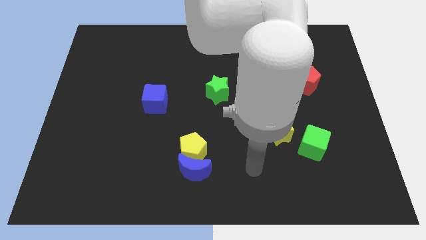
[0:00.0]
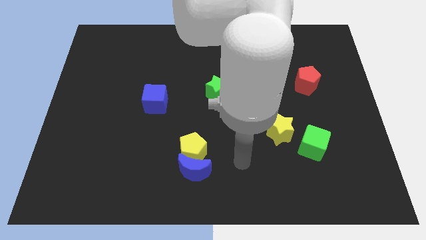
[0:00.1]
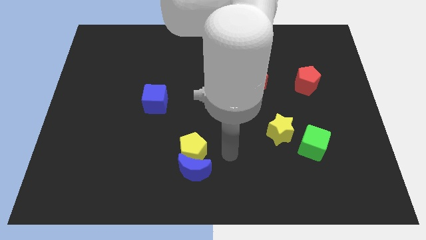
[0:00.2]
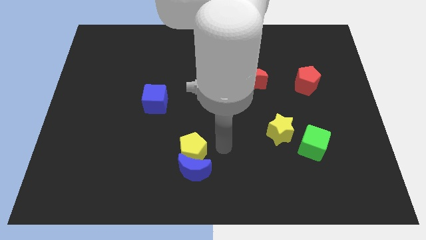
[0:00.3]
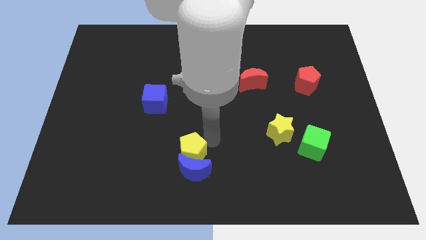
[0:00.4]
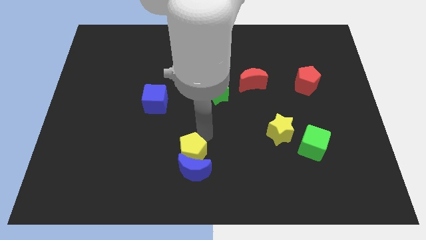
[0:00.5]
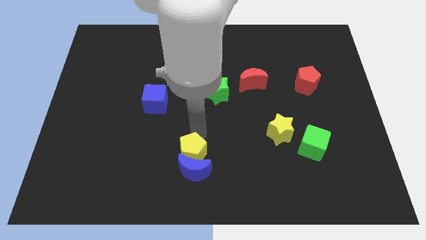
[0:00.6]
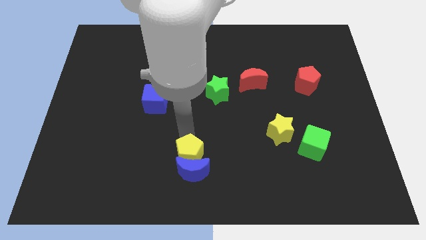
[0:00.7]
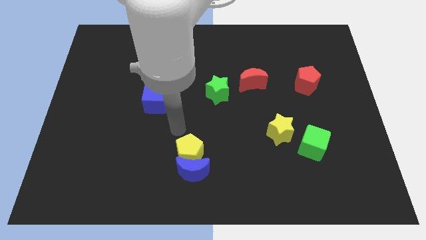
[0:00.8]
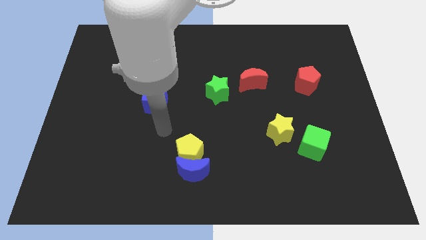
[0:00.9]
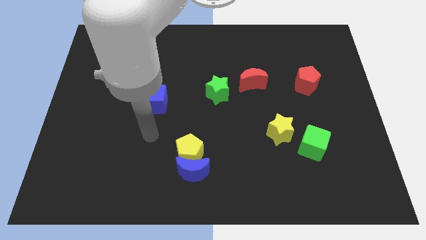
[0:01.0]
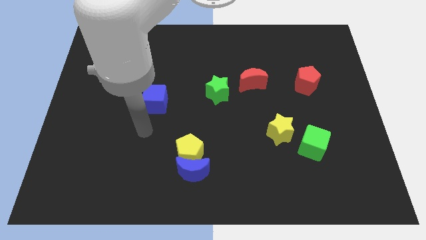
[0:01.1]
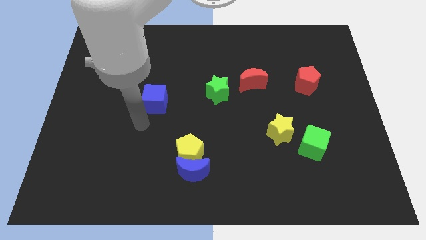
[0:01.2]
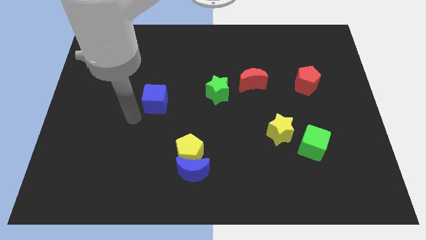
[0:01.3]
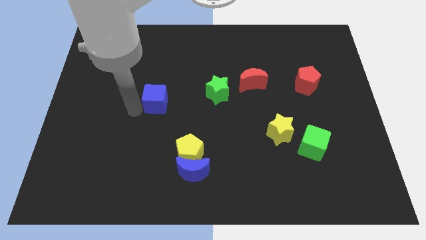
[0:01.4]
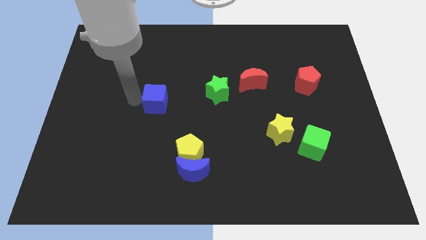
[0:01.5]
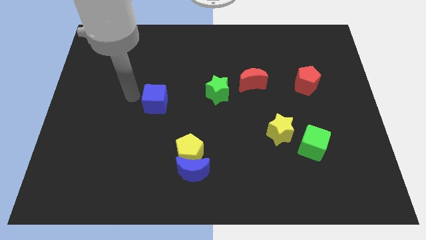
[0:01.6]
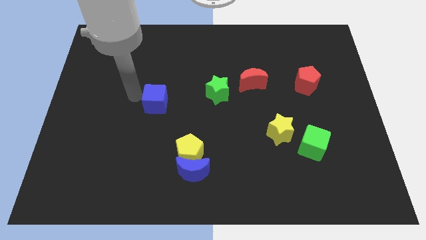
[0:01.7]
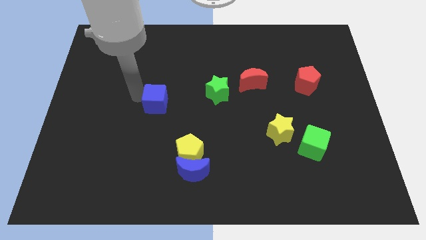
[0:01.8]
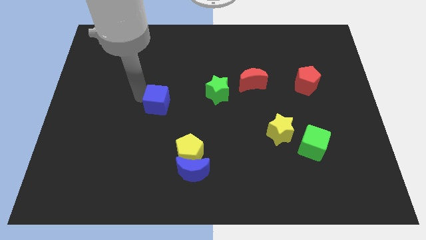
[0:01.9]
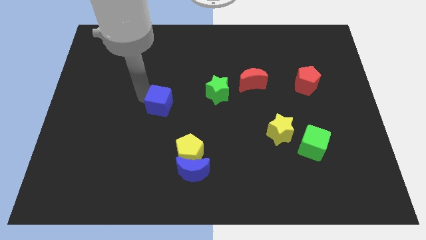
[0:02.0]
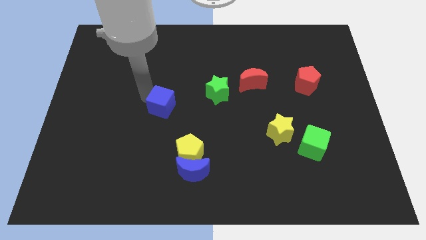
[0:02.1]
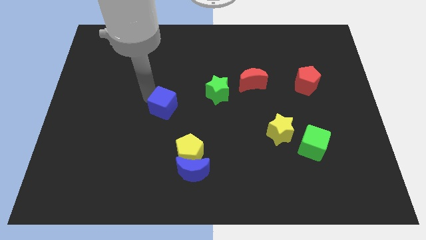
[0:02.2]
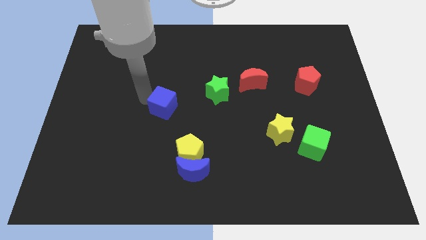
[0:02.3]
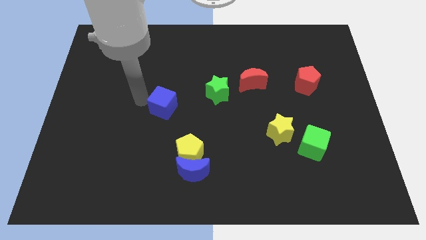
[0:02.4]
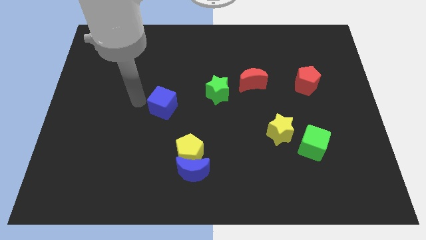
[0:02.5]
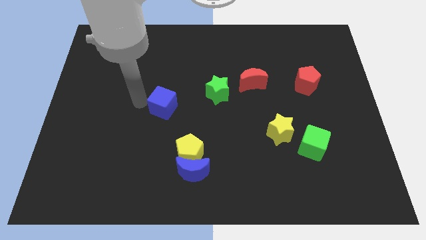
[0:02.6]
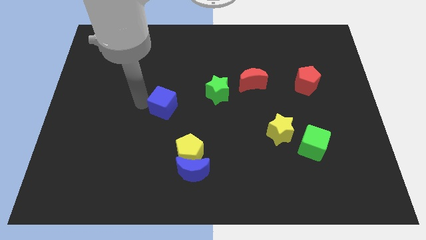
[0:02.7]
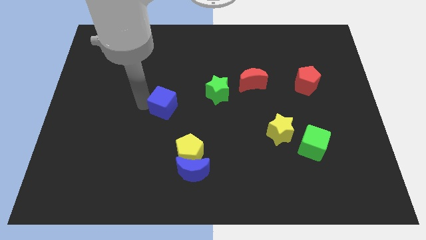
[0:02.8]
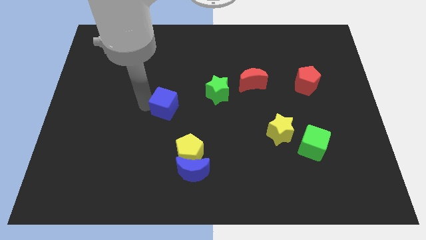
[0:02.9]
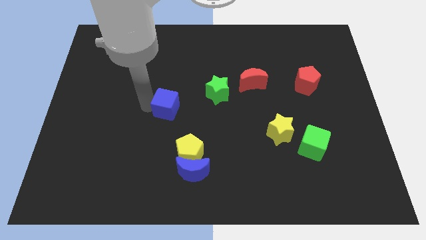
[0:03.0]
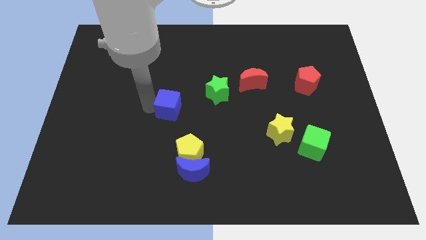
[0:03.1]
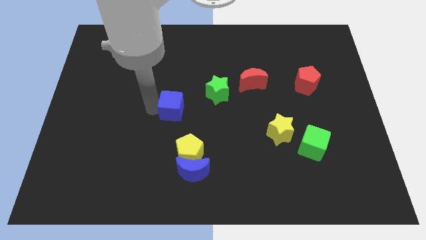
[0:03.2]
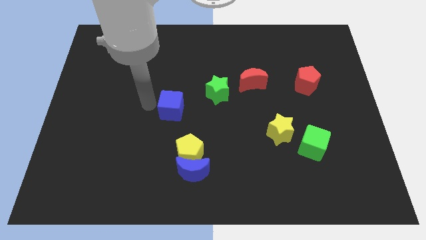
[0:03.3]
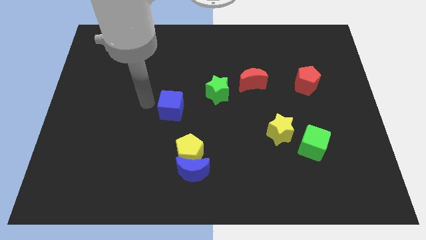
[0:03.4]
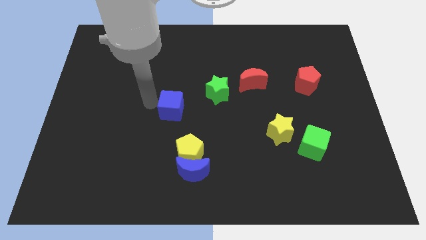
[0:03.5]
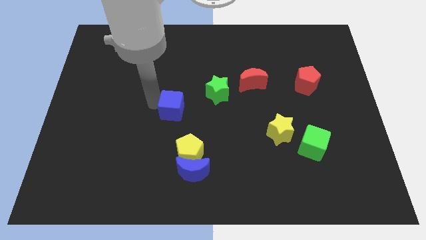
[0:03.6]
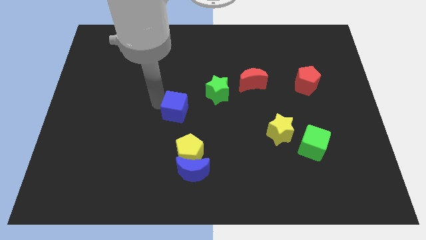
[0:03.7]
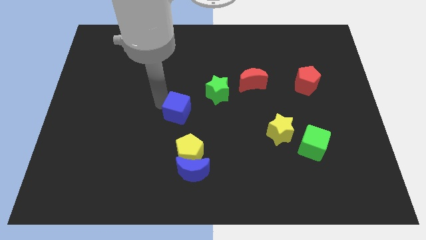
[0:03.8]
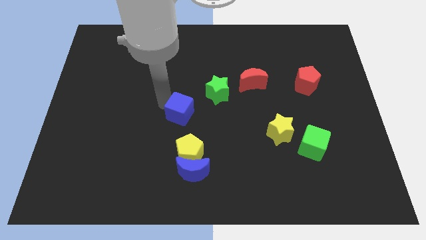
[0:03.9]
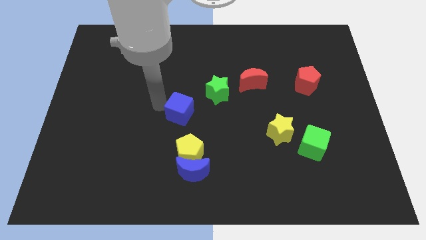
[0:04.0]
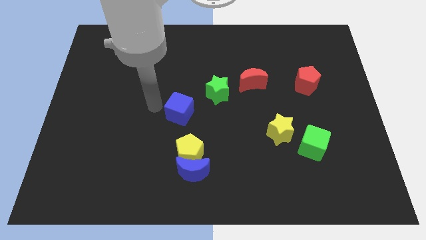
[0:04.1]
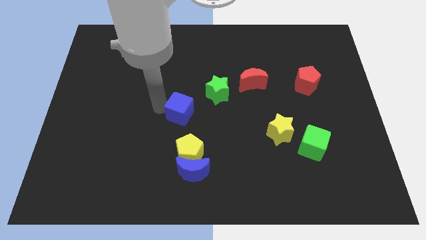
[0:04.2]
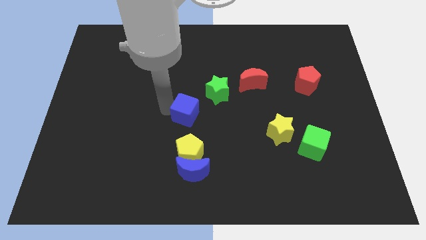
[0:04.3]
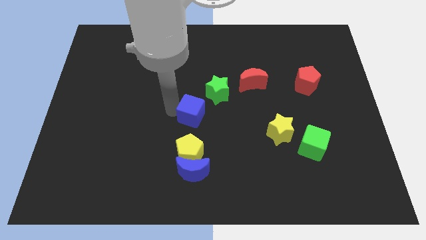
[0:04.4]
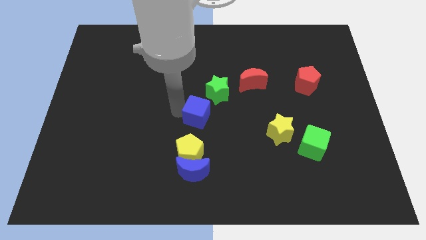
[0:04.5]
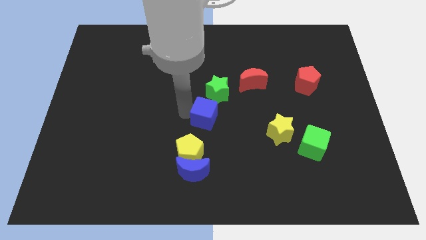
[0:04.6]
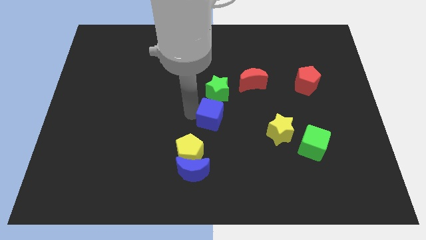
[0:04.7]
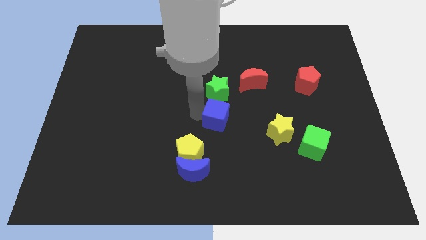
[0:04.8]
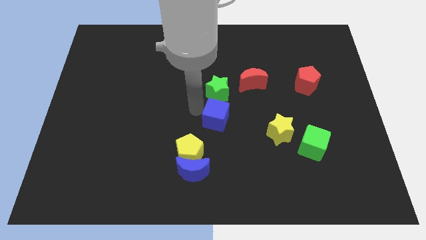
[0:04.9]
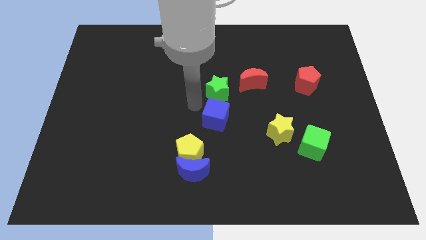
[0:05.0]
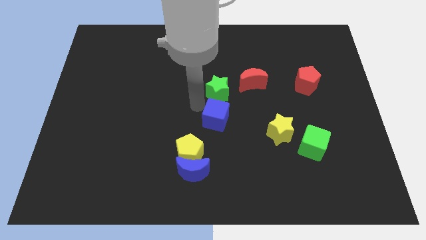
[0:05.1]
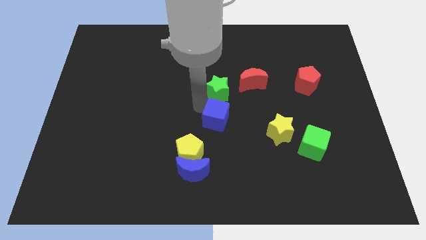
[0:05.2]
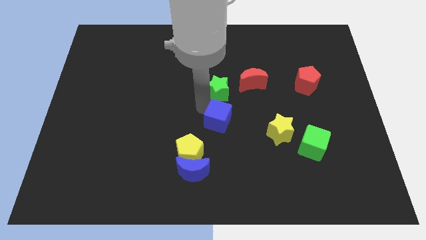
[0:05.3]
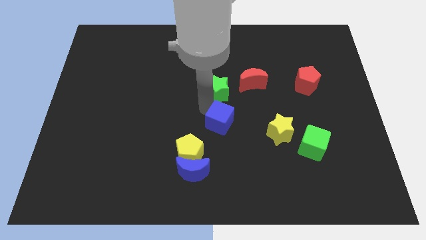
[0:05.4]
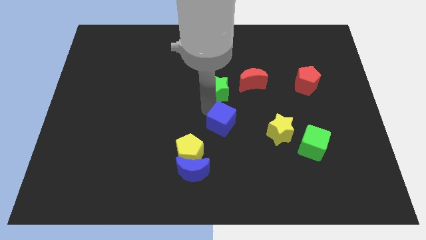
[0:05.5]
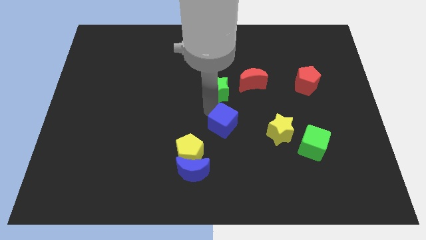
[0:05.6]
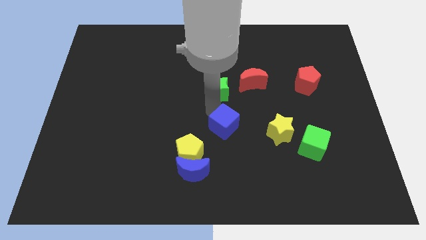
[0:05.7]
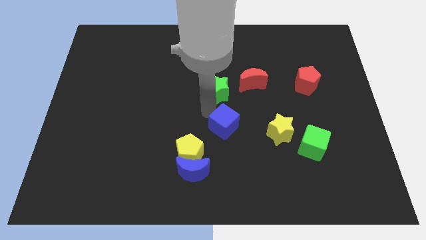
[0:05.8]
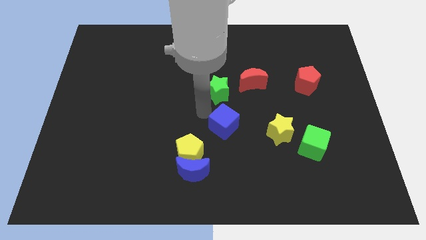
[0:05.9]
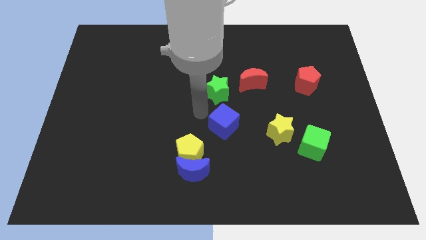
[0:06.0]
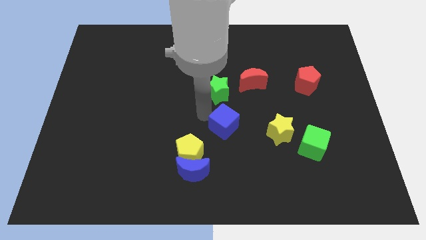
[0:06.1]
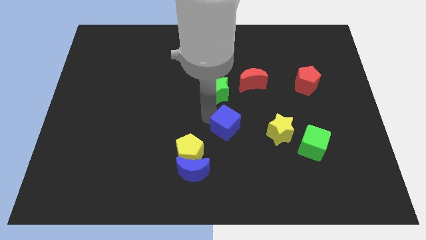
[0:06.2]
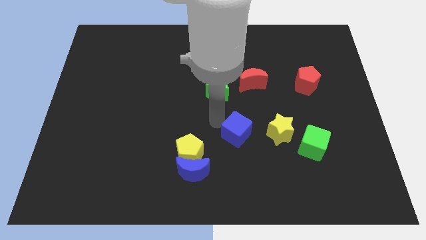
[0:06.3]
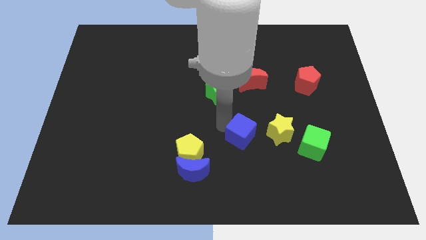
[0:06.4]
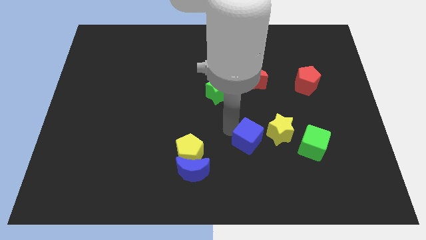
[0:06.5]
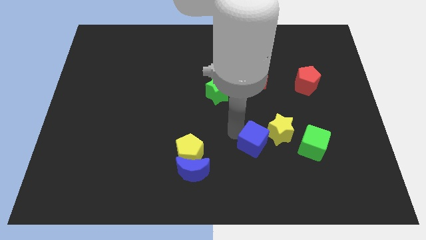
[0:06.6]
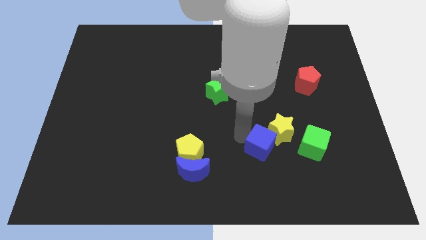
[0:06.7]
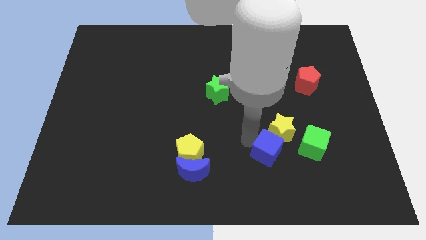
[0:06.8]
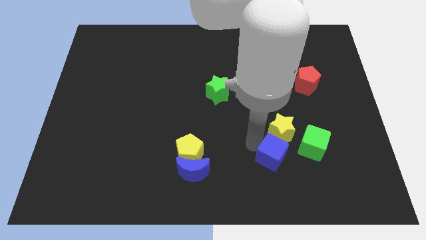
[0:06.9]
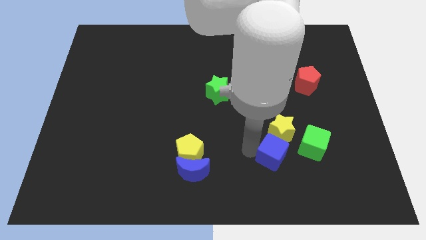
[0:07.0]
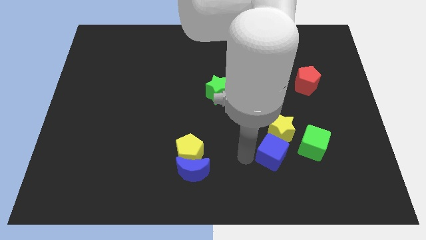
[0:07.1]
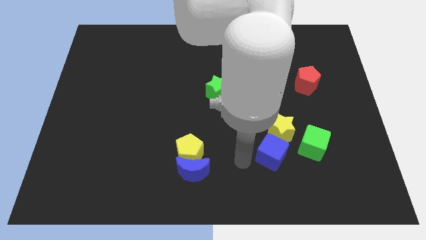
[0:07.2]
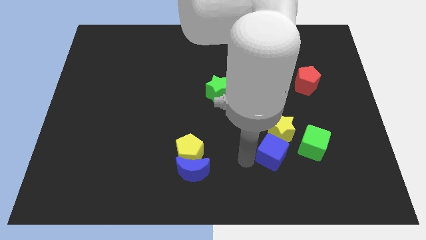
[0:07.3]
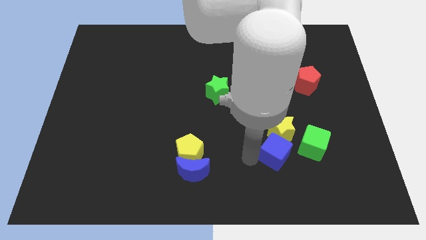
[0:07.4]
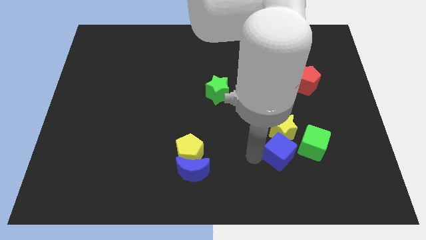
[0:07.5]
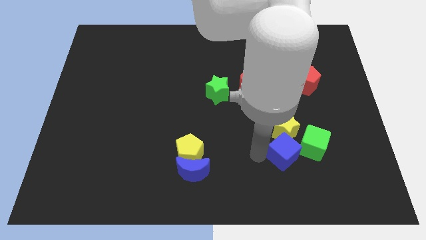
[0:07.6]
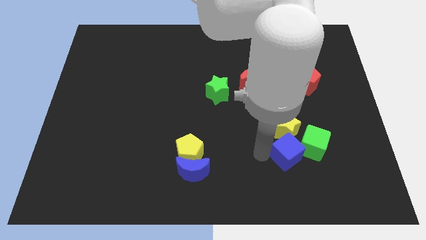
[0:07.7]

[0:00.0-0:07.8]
put the blue cube next to the green cube
